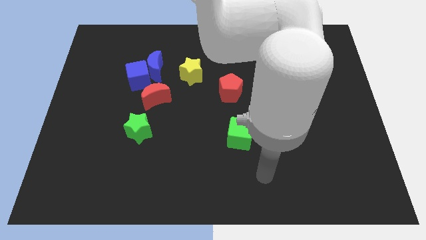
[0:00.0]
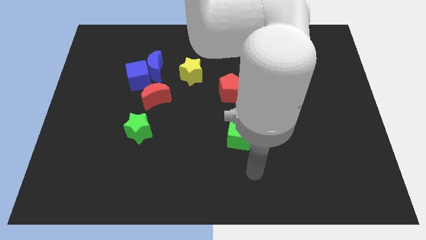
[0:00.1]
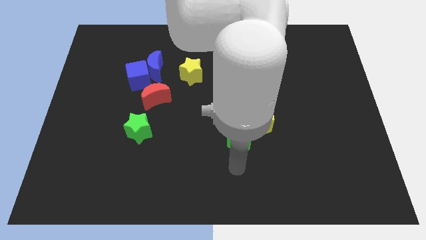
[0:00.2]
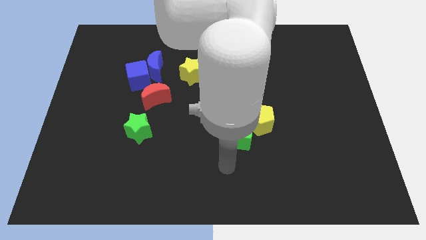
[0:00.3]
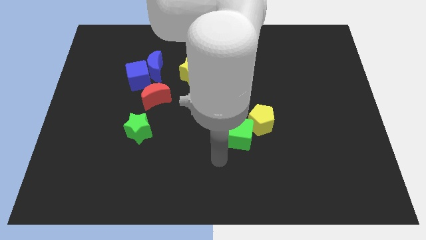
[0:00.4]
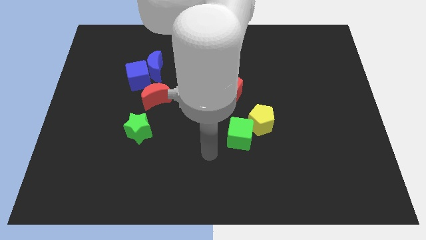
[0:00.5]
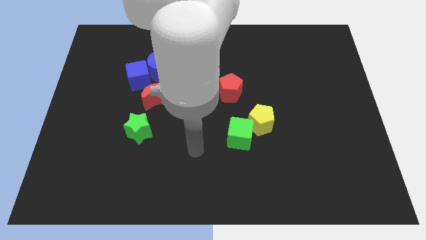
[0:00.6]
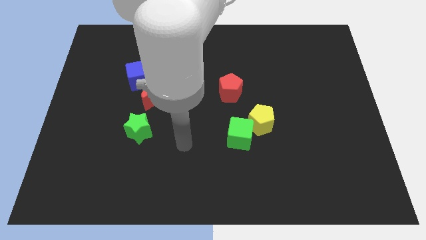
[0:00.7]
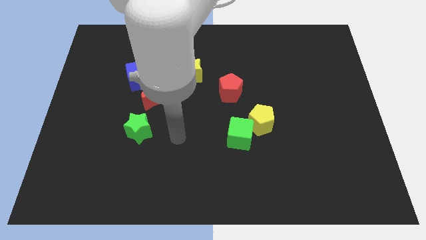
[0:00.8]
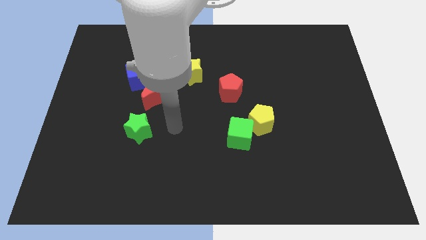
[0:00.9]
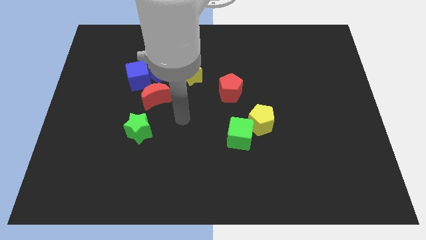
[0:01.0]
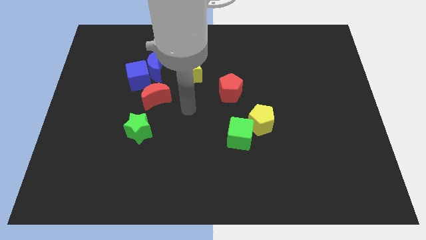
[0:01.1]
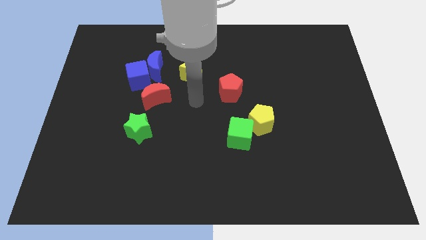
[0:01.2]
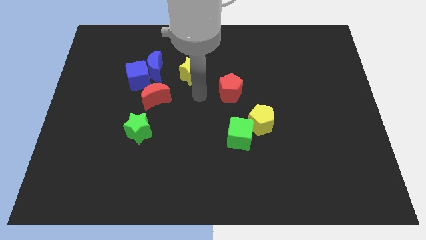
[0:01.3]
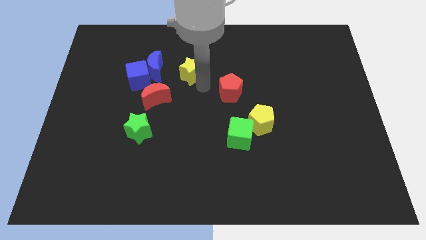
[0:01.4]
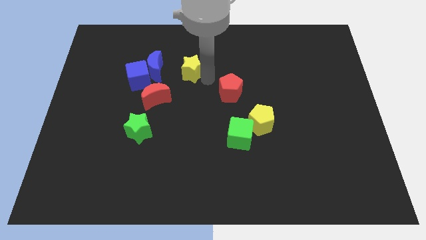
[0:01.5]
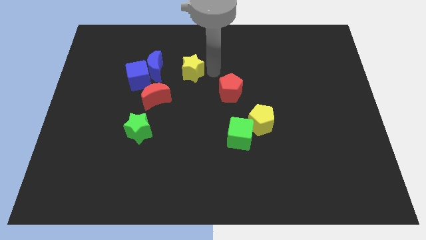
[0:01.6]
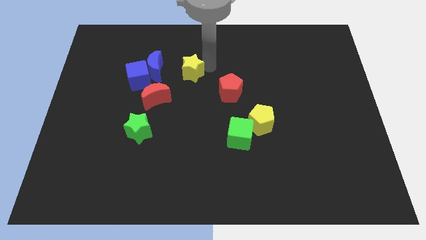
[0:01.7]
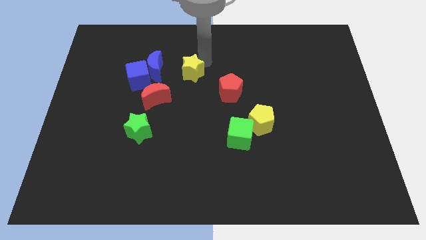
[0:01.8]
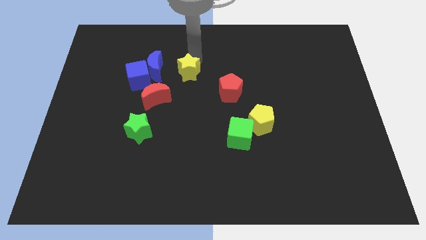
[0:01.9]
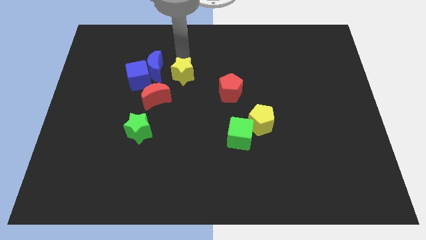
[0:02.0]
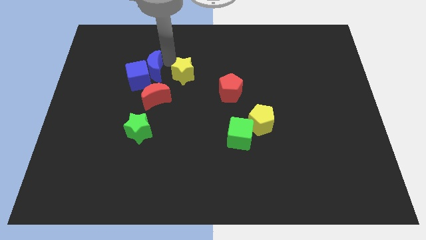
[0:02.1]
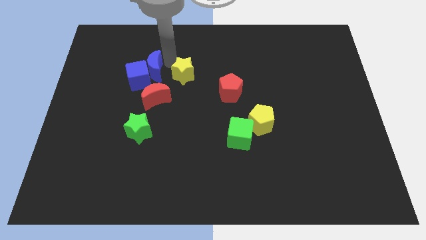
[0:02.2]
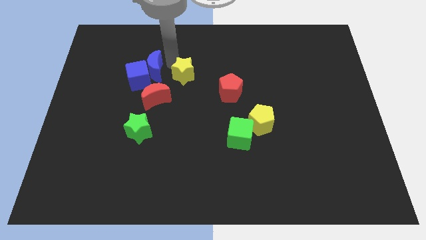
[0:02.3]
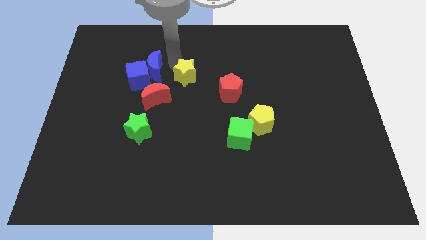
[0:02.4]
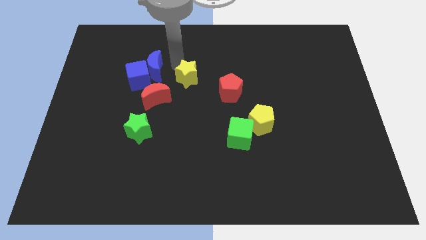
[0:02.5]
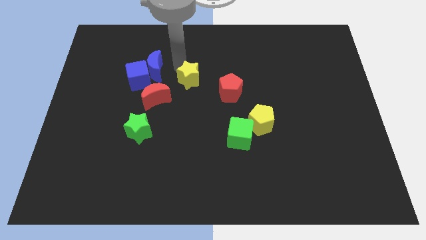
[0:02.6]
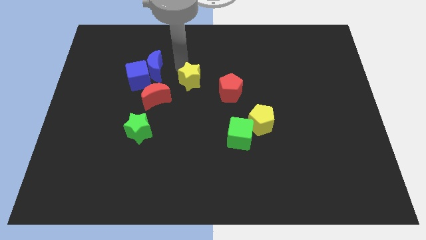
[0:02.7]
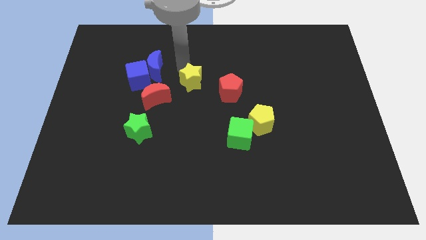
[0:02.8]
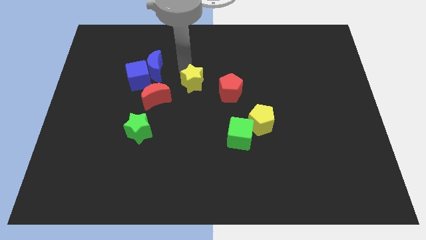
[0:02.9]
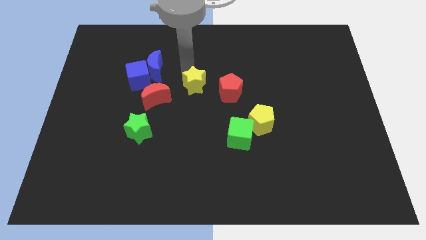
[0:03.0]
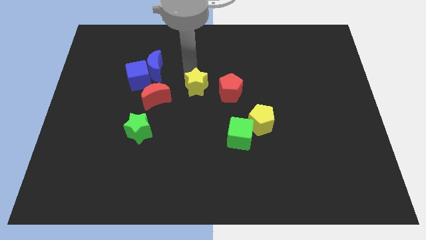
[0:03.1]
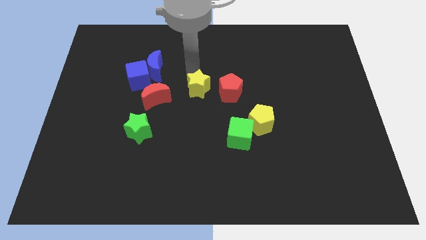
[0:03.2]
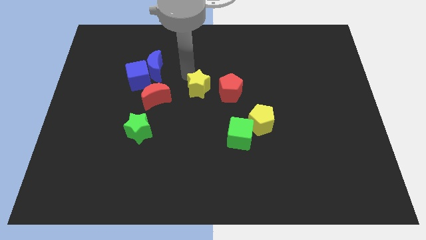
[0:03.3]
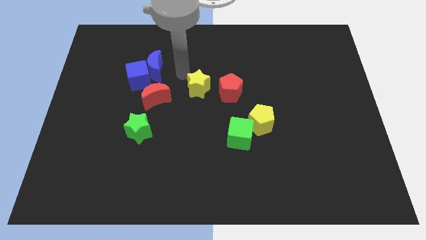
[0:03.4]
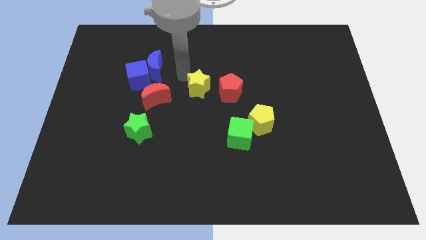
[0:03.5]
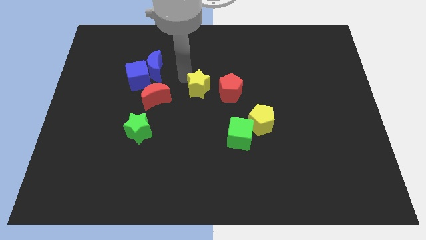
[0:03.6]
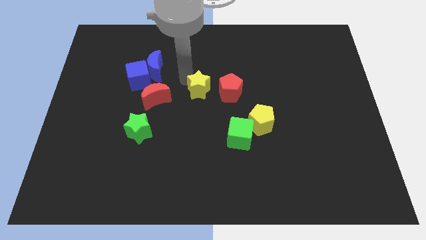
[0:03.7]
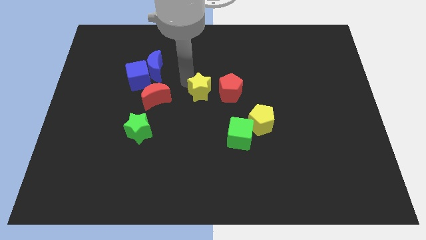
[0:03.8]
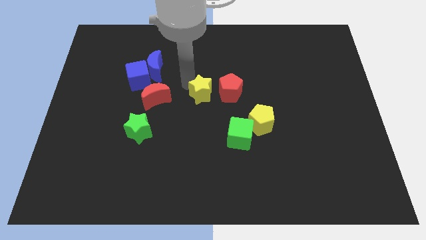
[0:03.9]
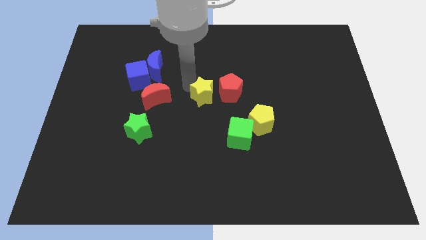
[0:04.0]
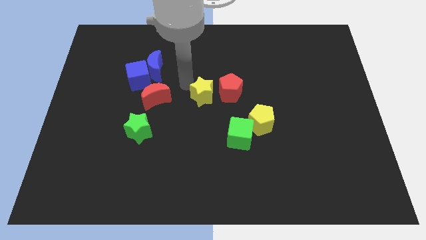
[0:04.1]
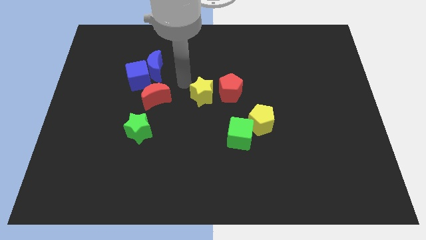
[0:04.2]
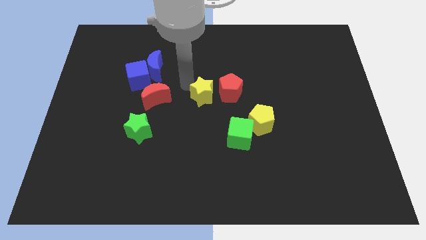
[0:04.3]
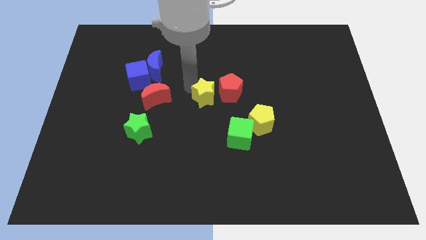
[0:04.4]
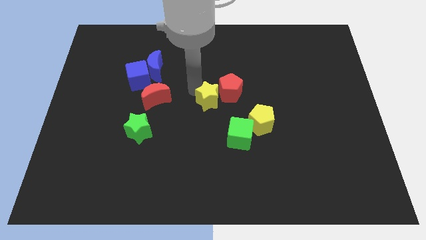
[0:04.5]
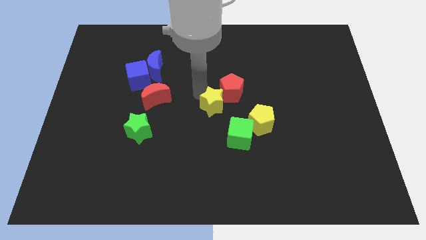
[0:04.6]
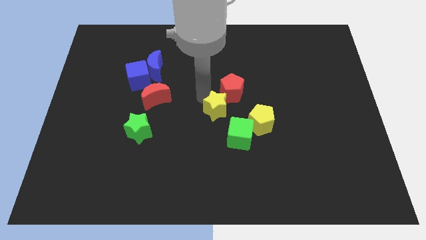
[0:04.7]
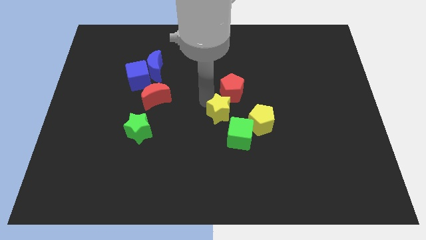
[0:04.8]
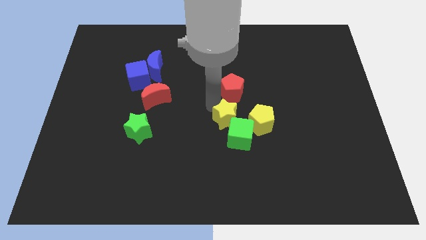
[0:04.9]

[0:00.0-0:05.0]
move the yellow star next to the green cube

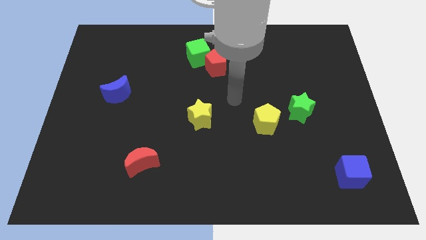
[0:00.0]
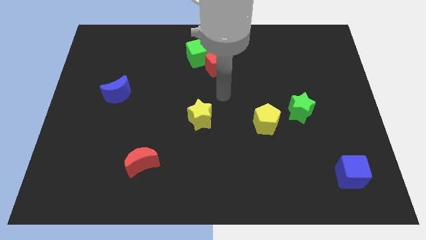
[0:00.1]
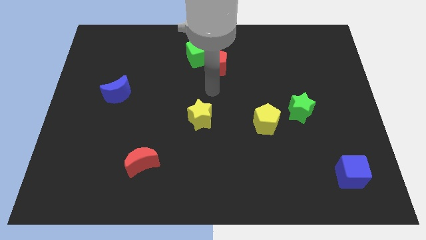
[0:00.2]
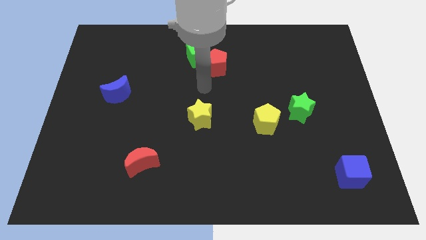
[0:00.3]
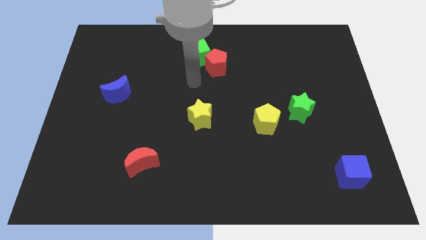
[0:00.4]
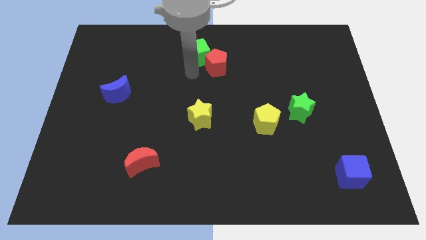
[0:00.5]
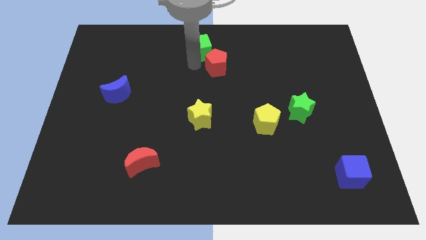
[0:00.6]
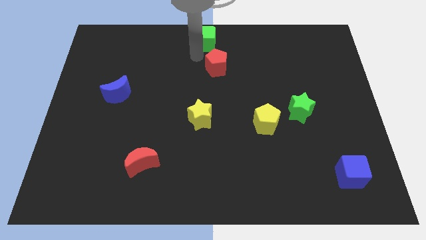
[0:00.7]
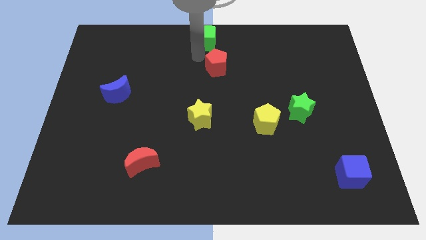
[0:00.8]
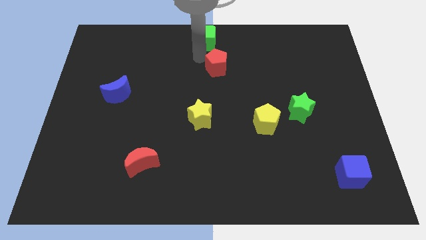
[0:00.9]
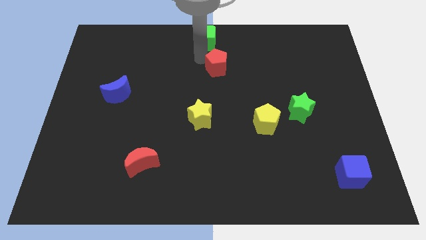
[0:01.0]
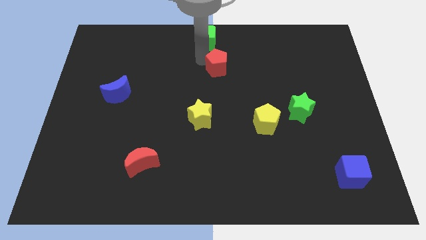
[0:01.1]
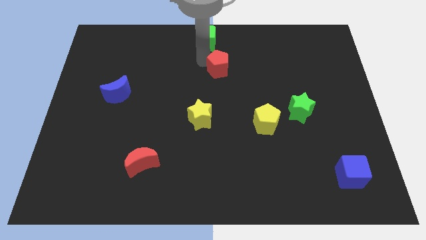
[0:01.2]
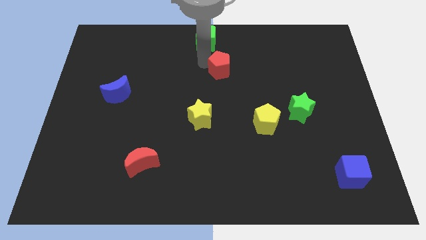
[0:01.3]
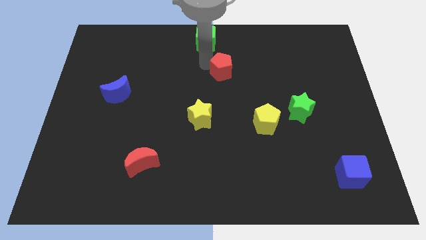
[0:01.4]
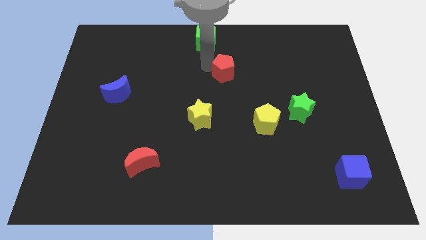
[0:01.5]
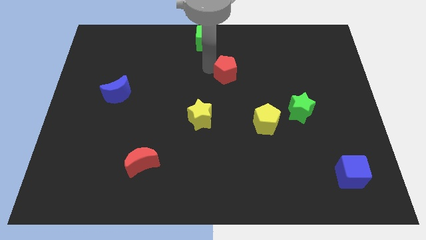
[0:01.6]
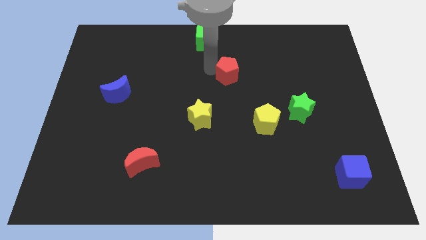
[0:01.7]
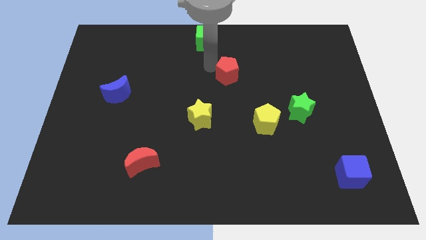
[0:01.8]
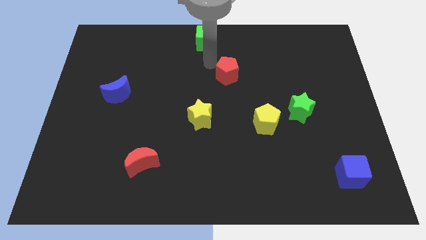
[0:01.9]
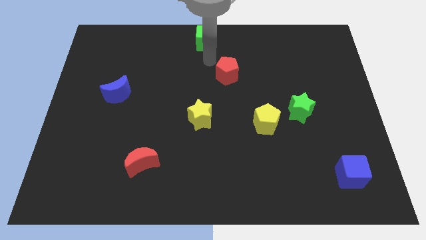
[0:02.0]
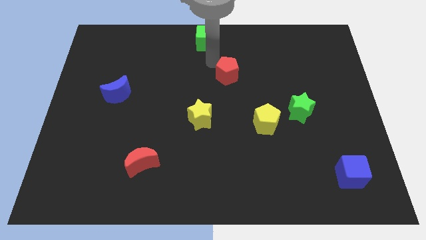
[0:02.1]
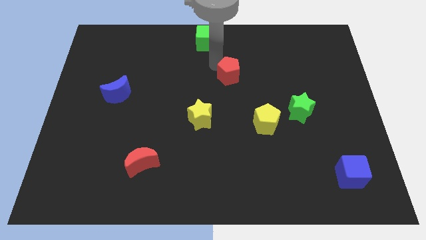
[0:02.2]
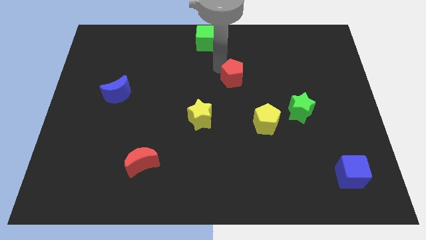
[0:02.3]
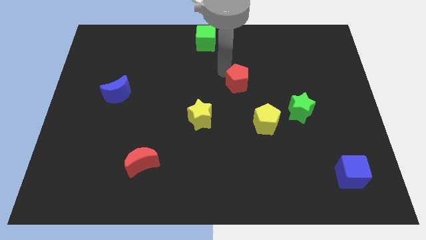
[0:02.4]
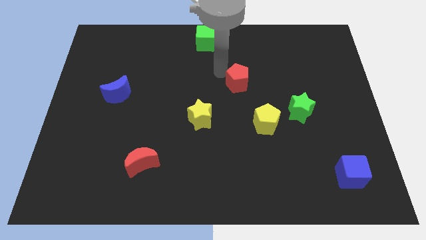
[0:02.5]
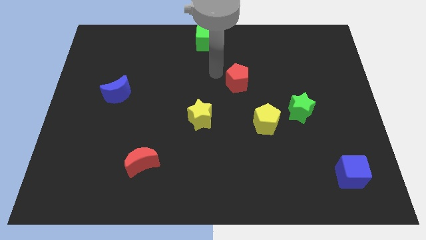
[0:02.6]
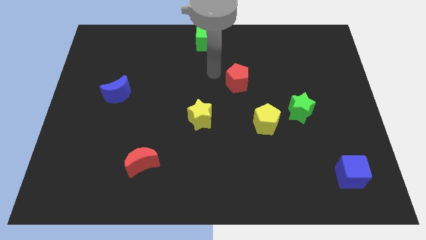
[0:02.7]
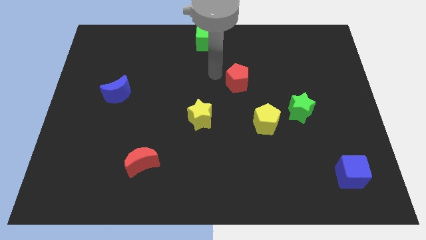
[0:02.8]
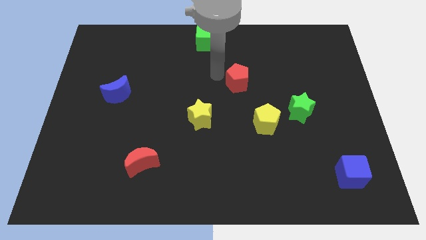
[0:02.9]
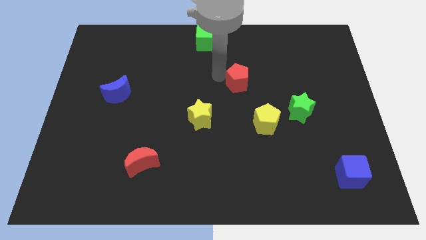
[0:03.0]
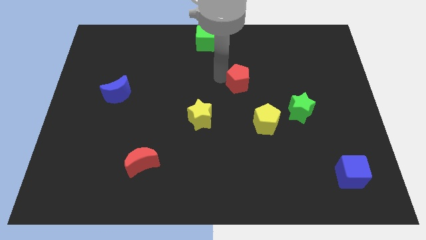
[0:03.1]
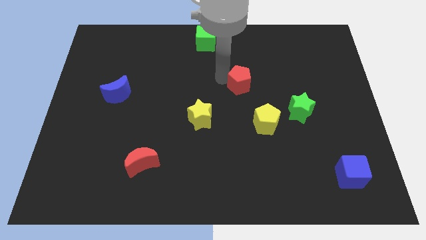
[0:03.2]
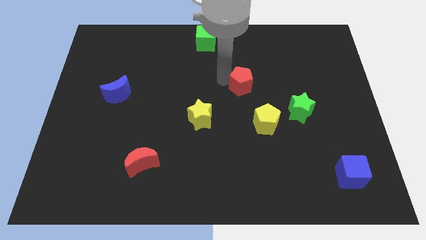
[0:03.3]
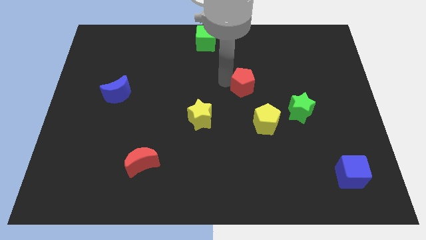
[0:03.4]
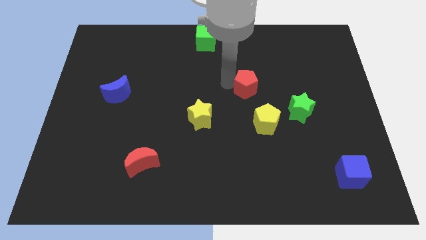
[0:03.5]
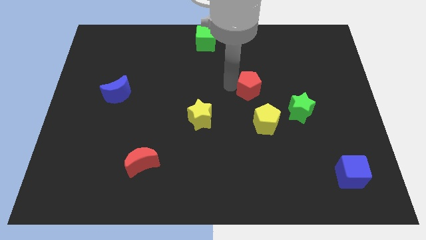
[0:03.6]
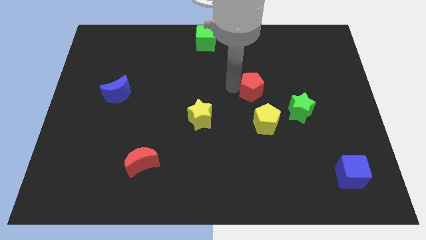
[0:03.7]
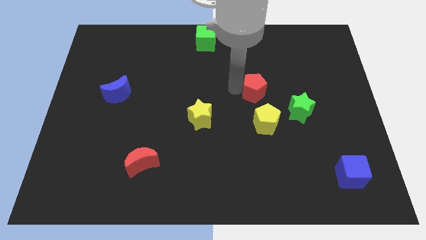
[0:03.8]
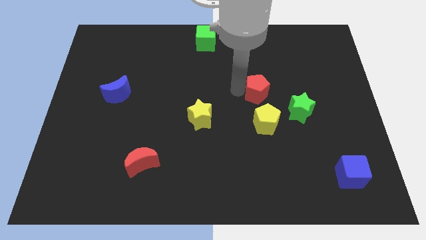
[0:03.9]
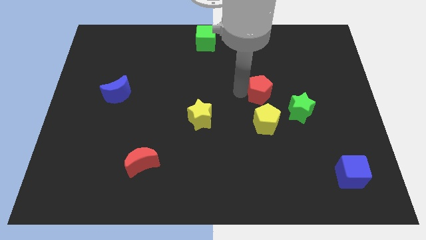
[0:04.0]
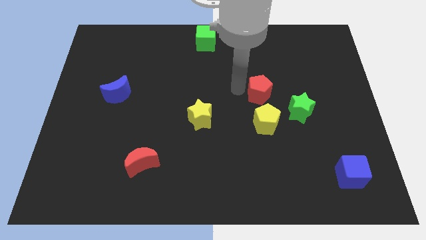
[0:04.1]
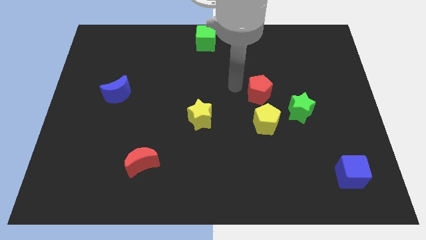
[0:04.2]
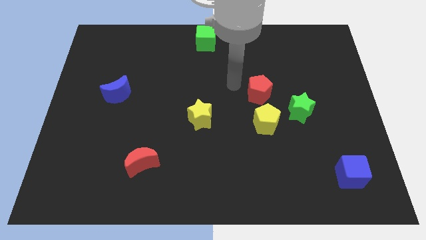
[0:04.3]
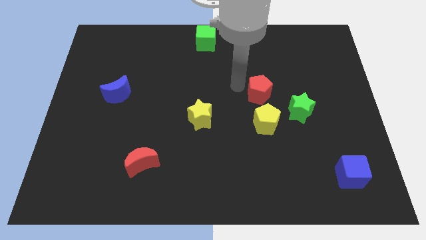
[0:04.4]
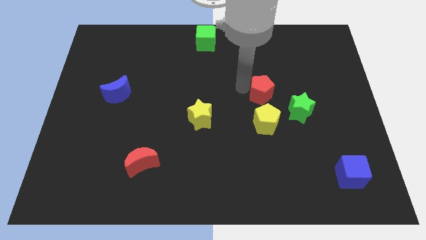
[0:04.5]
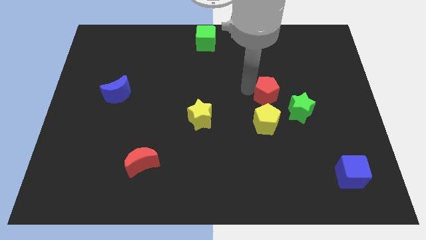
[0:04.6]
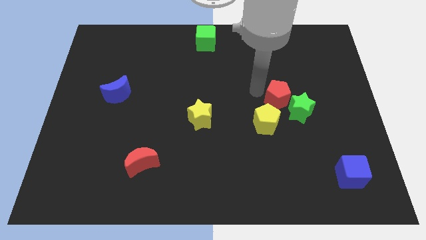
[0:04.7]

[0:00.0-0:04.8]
slide the red pentagon close to the green star
